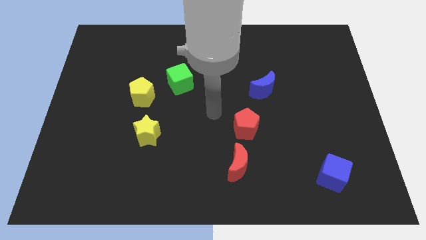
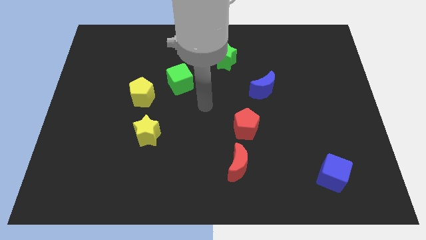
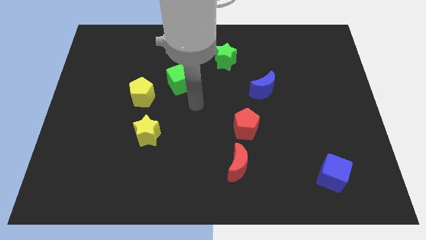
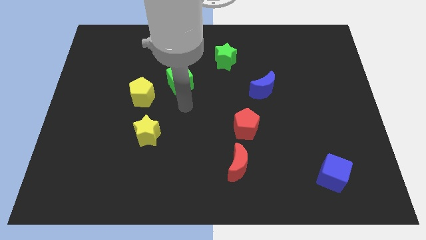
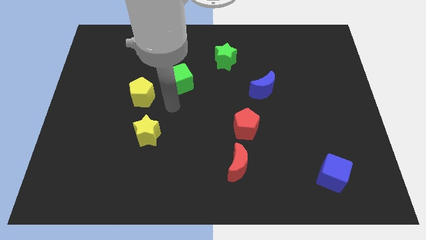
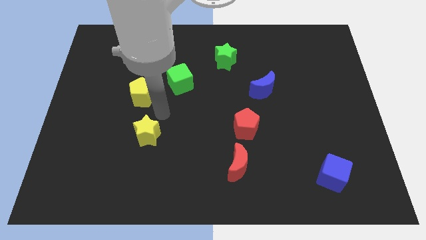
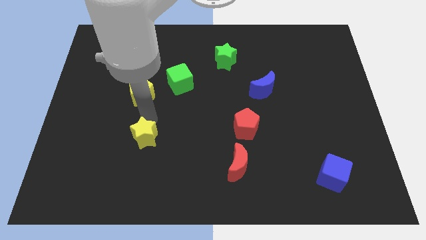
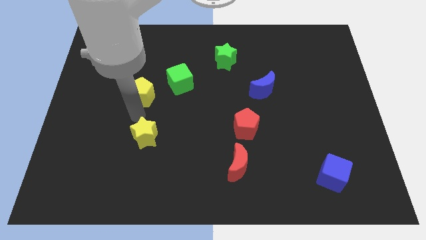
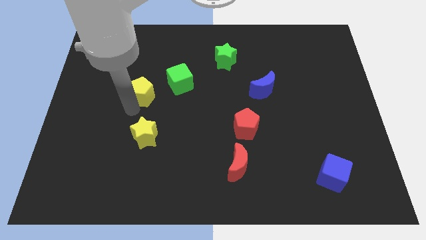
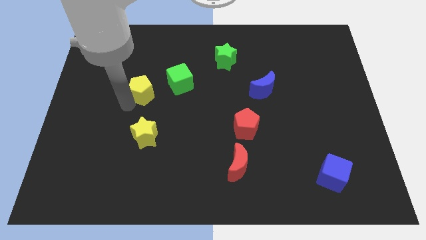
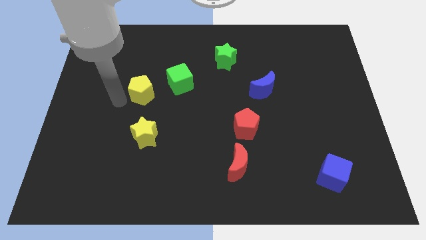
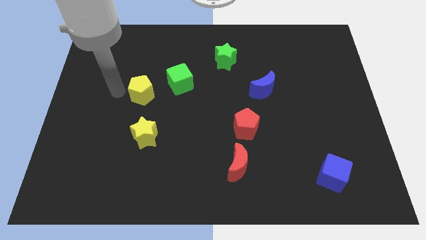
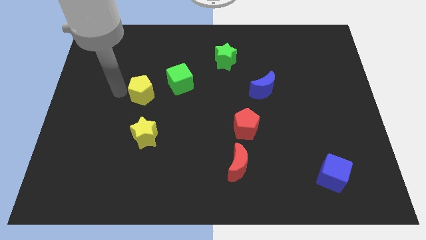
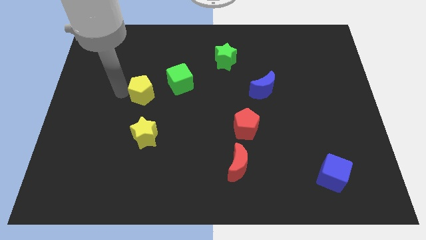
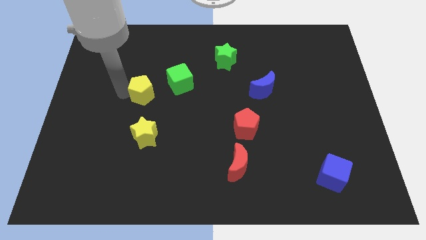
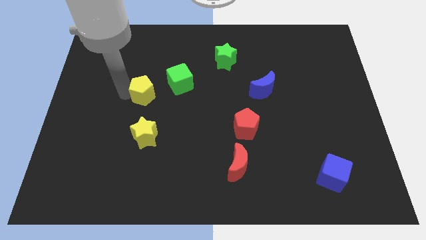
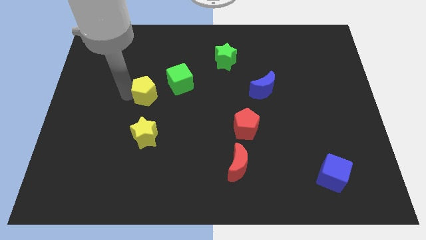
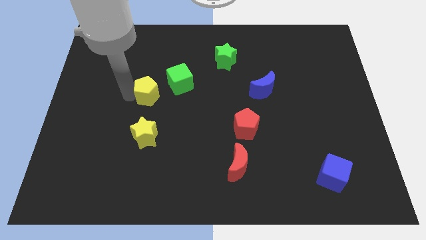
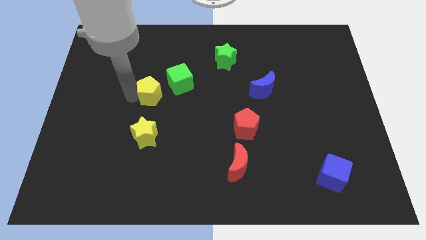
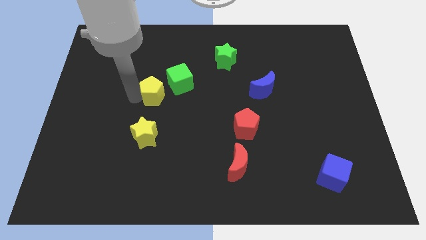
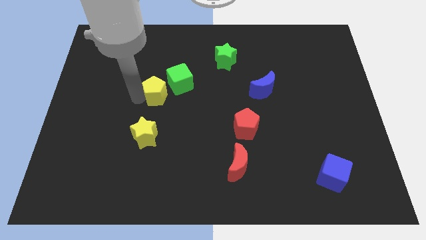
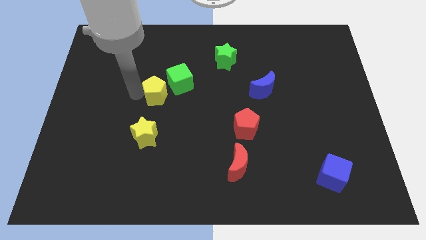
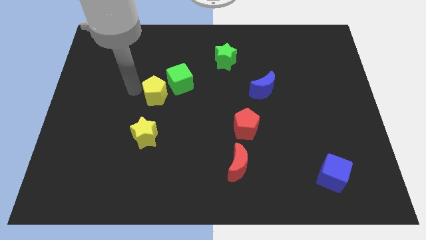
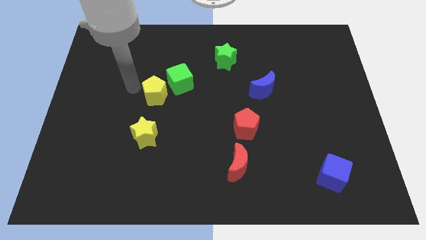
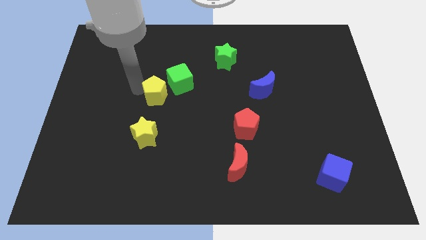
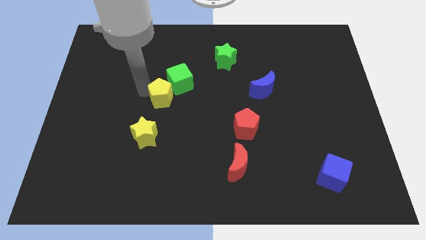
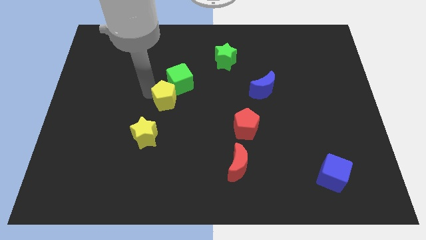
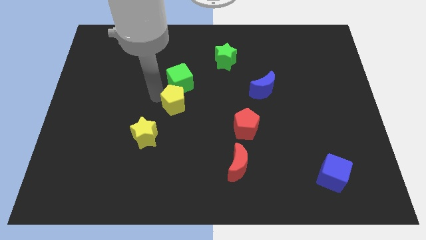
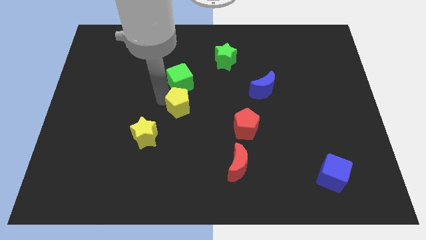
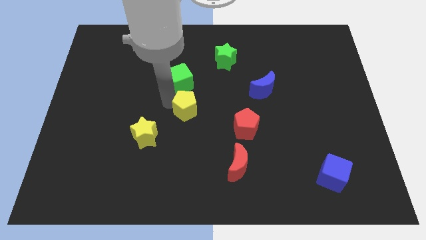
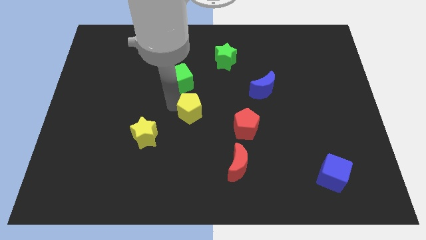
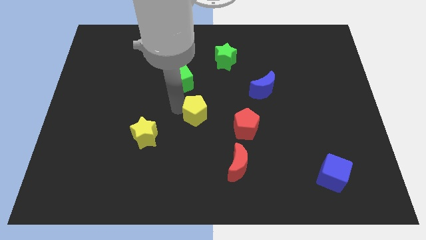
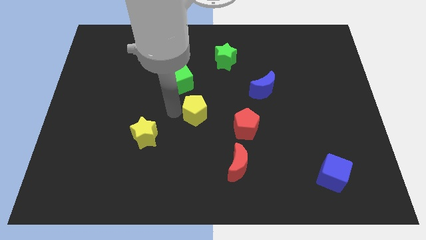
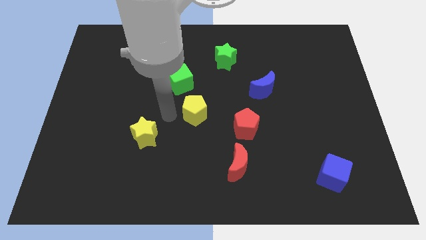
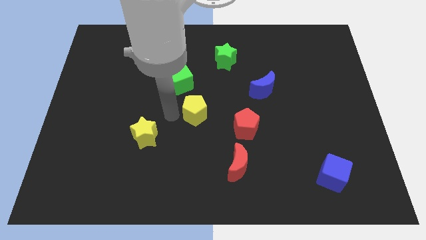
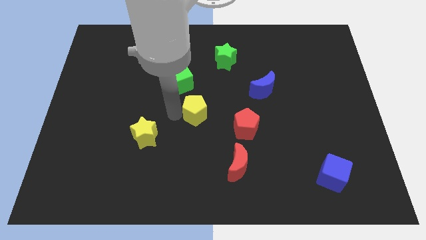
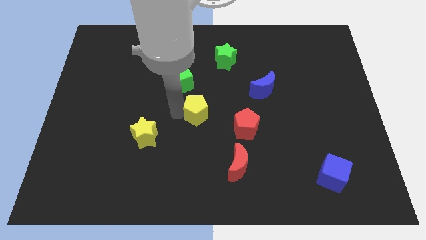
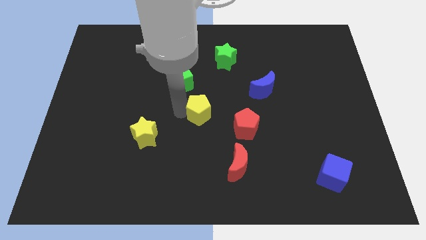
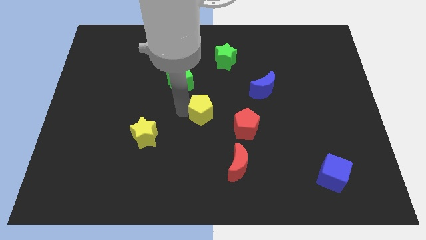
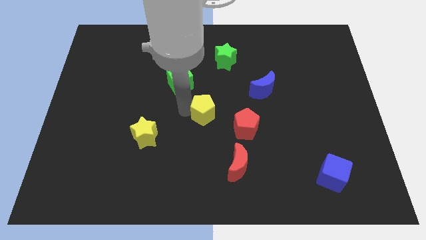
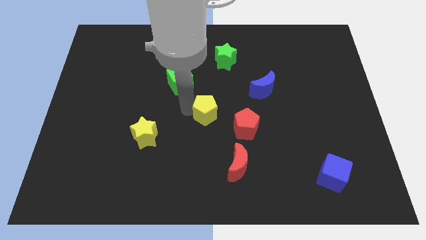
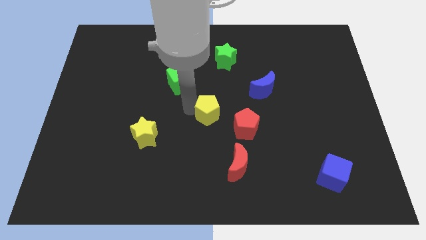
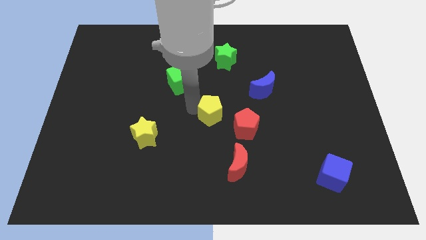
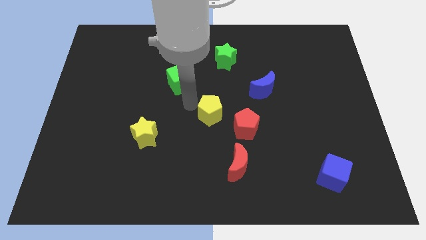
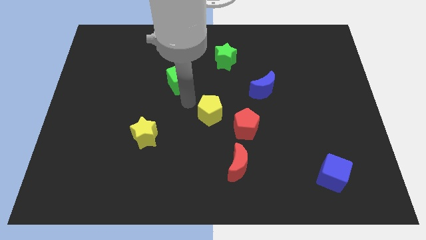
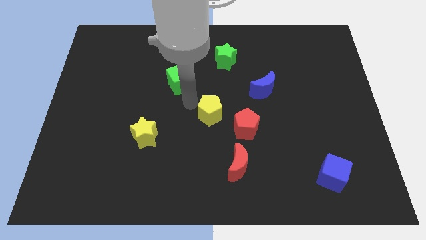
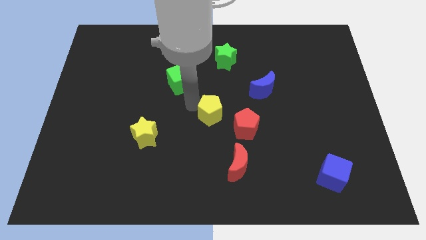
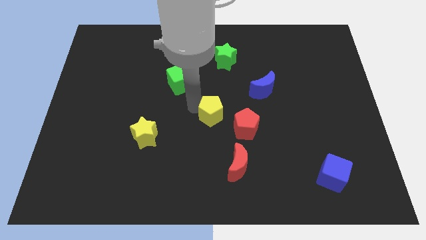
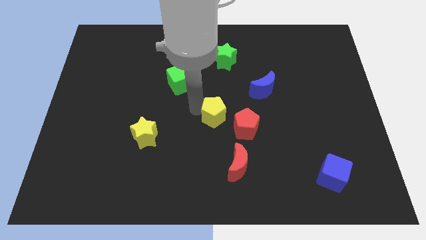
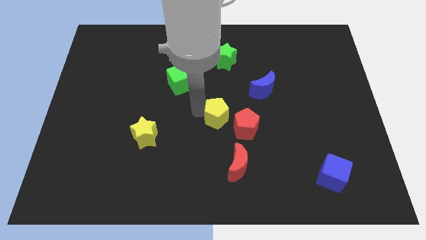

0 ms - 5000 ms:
put the yellow pentagon above the red moon

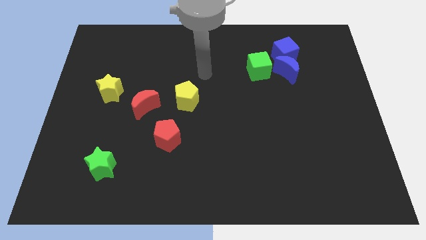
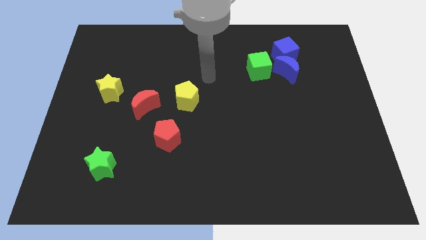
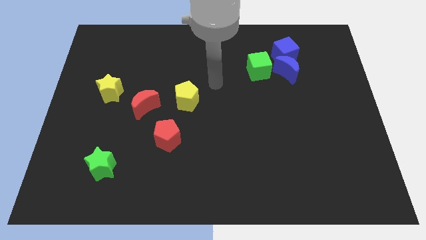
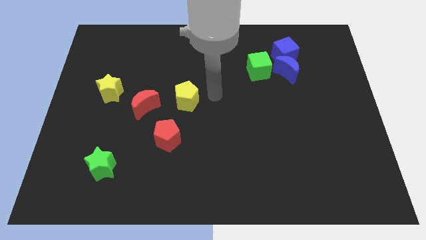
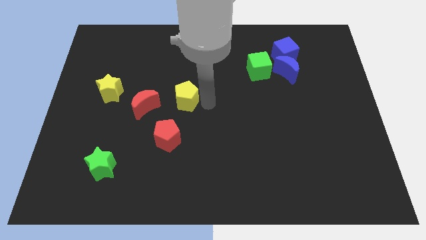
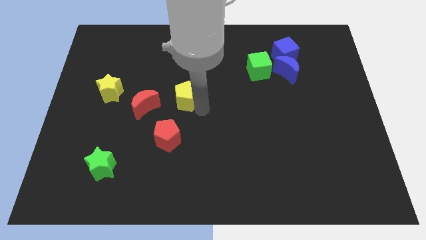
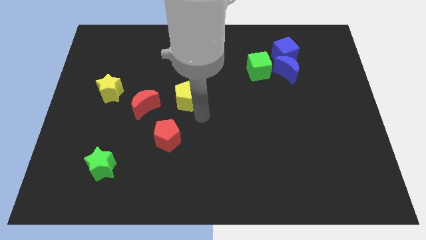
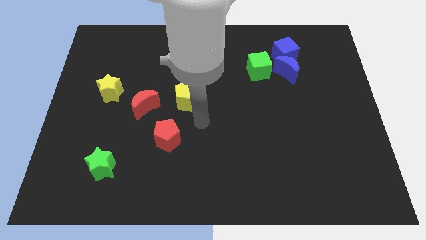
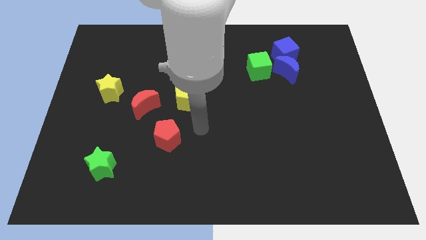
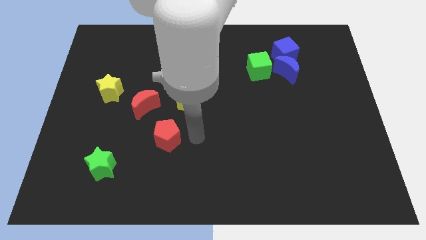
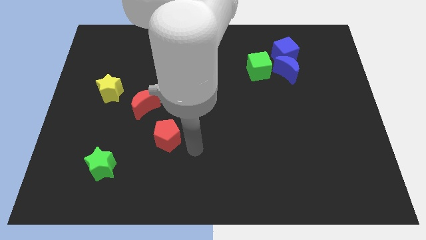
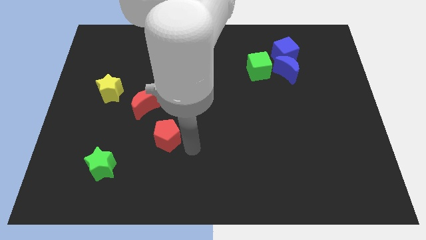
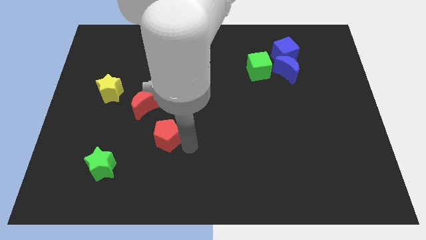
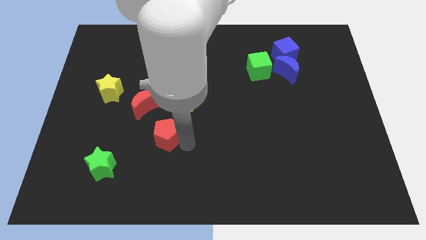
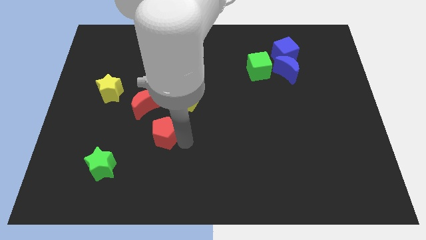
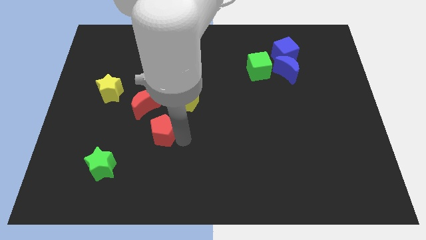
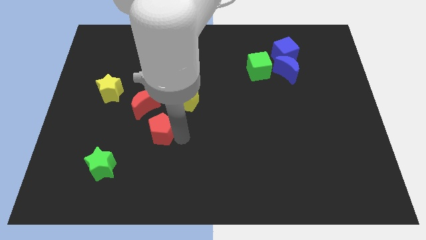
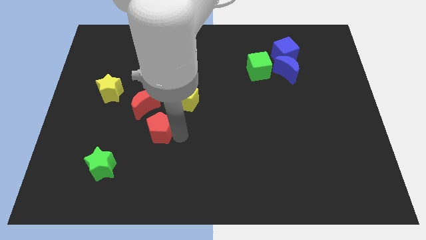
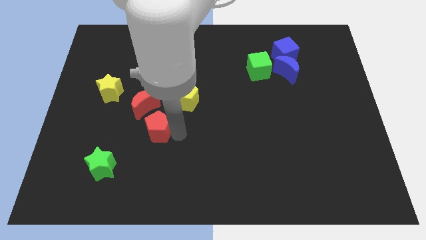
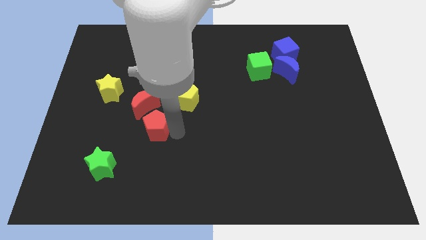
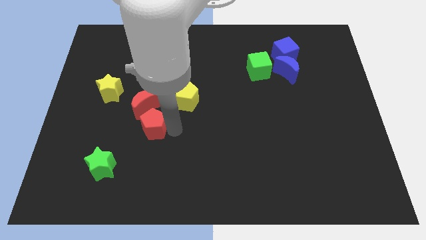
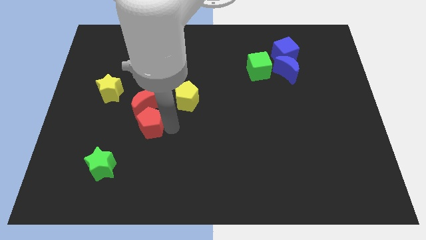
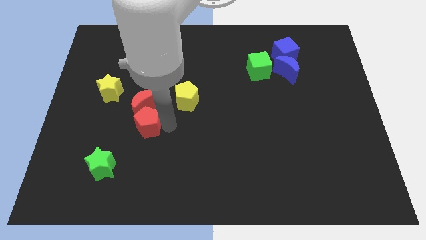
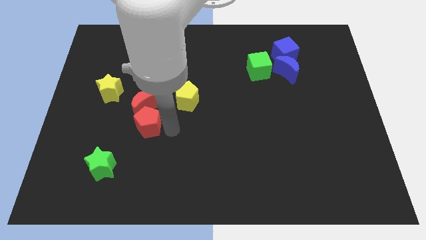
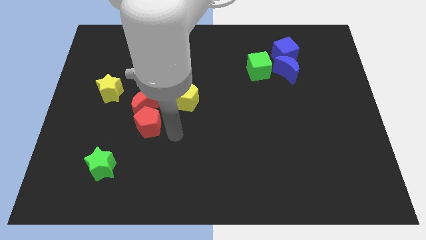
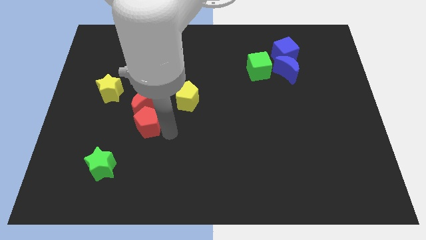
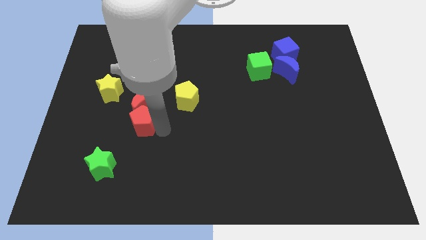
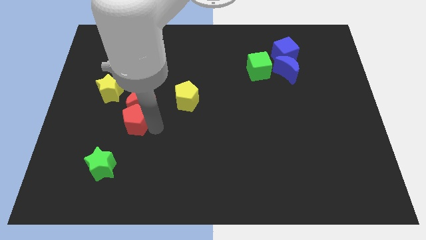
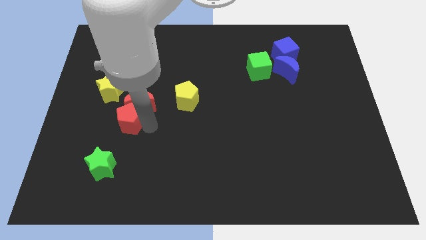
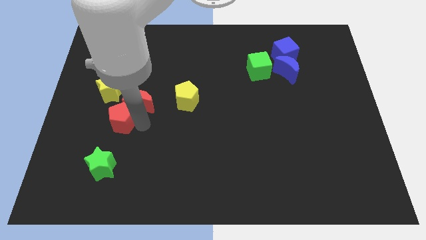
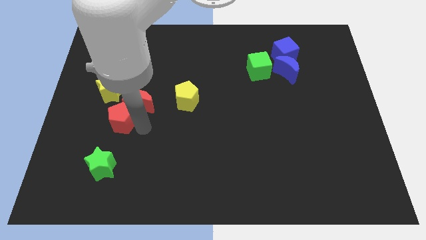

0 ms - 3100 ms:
move the red pentagon to the left of the red moon
